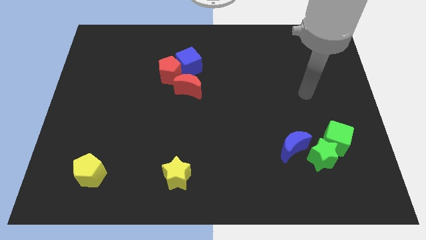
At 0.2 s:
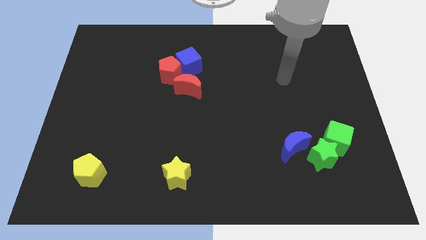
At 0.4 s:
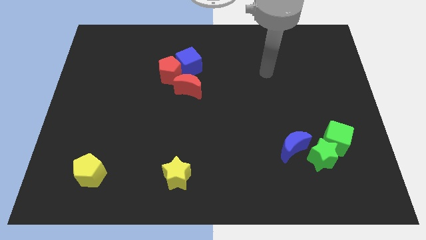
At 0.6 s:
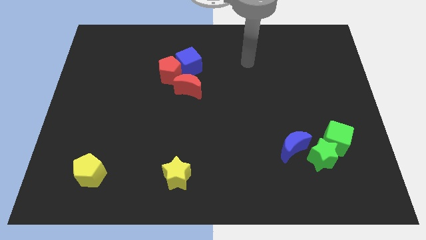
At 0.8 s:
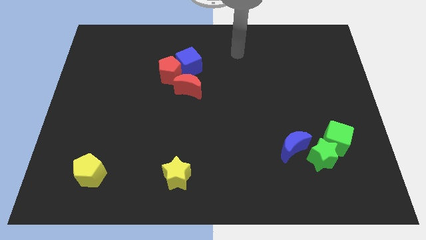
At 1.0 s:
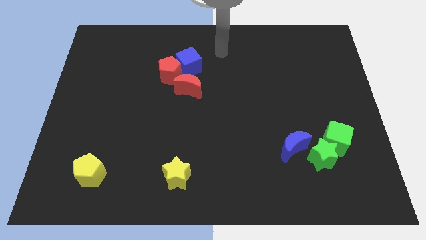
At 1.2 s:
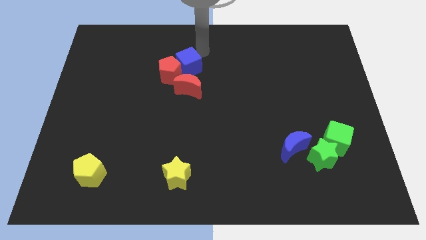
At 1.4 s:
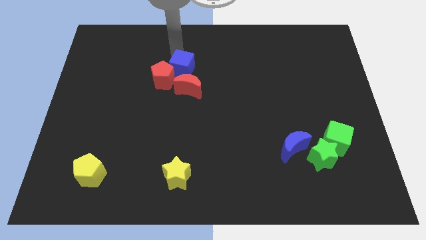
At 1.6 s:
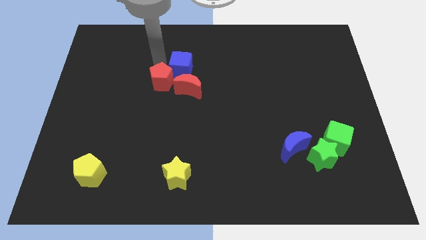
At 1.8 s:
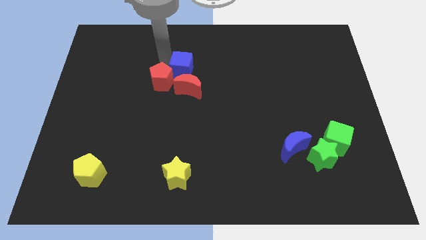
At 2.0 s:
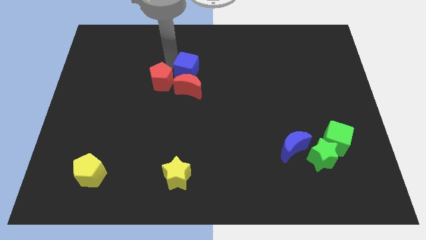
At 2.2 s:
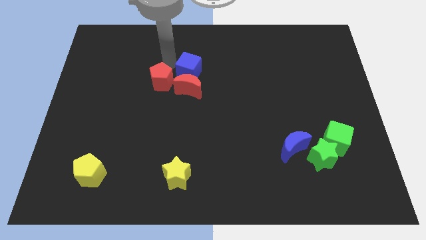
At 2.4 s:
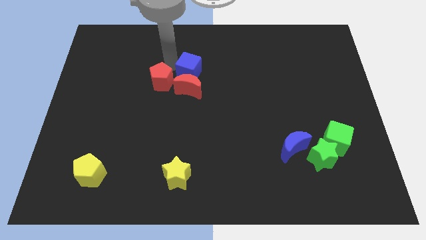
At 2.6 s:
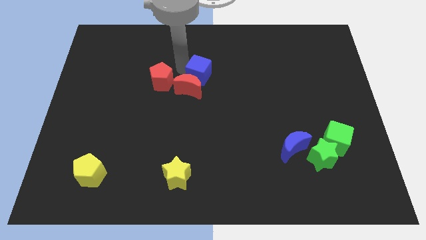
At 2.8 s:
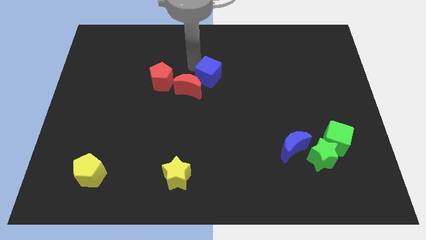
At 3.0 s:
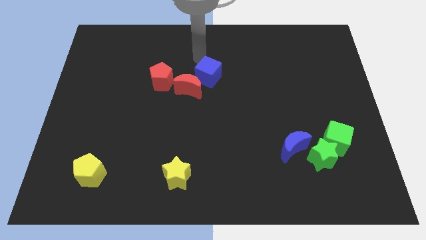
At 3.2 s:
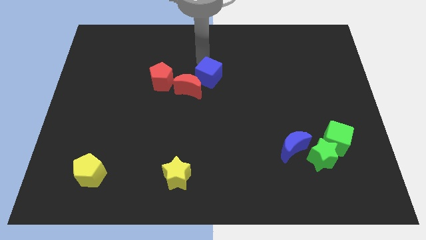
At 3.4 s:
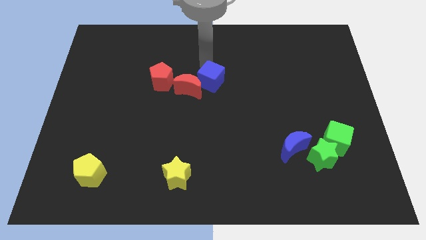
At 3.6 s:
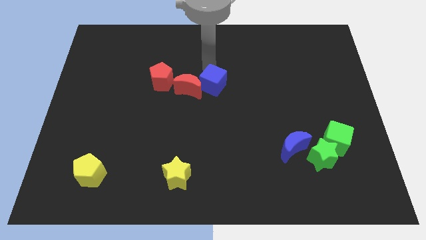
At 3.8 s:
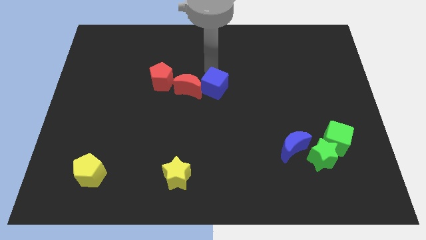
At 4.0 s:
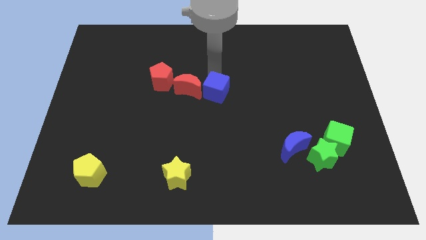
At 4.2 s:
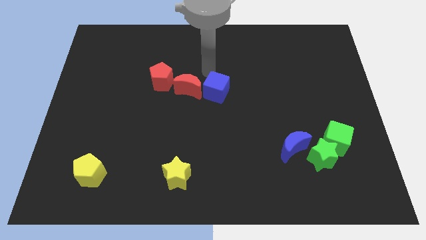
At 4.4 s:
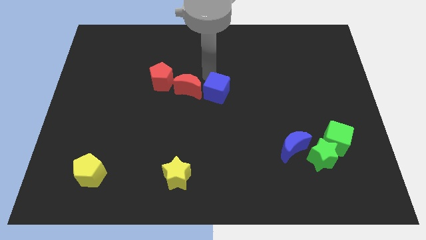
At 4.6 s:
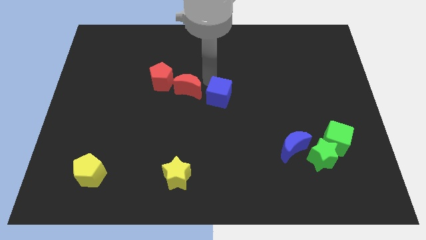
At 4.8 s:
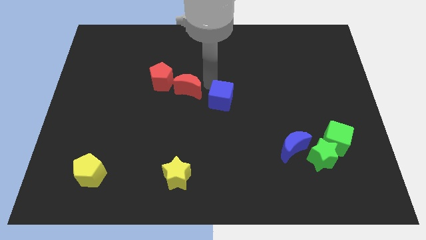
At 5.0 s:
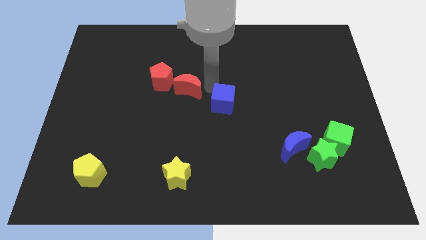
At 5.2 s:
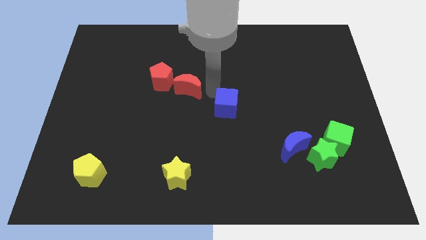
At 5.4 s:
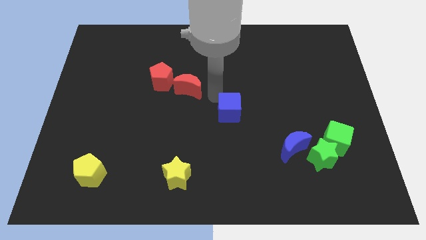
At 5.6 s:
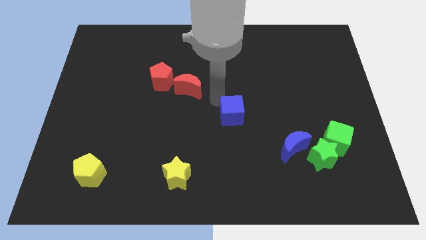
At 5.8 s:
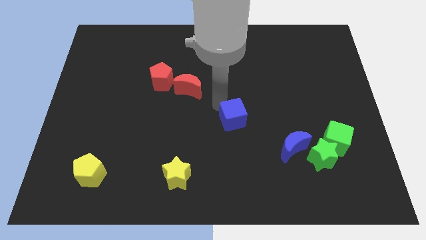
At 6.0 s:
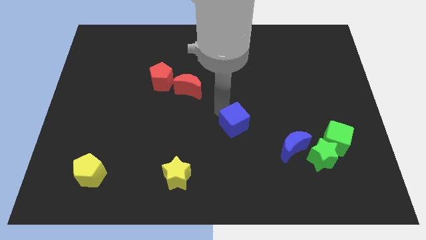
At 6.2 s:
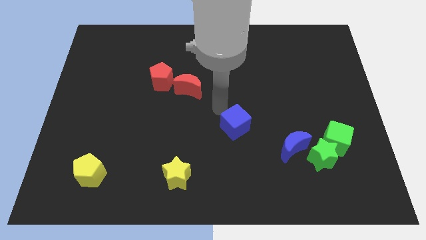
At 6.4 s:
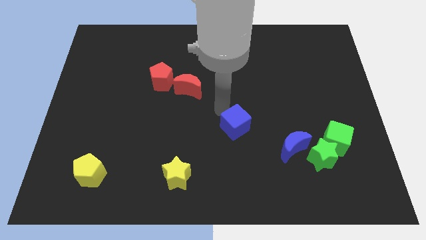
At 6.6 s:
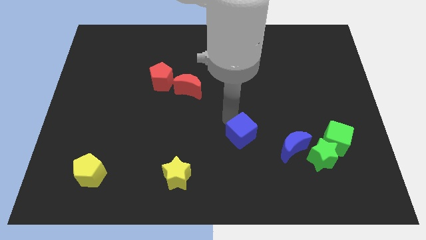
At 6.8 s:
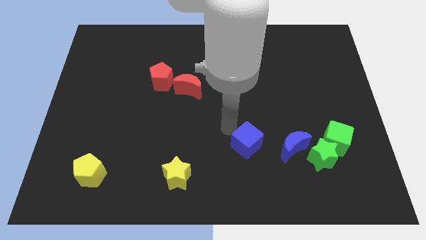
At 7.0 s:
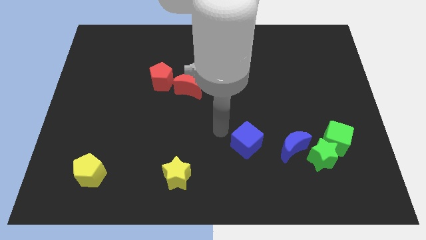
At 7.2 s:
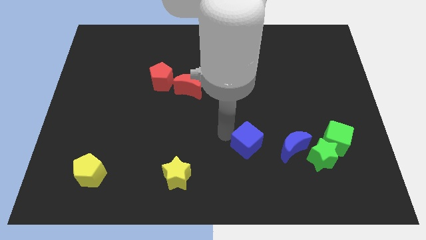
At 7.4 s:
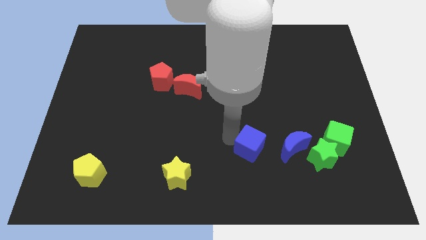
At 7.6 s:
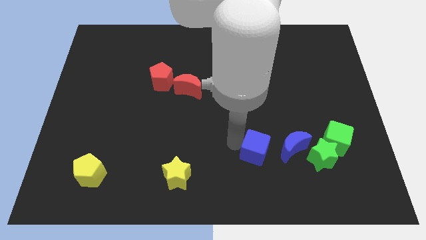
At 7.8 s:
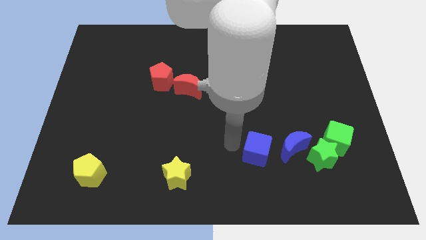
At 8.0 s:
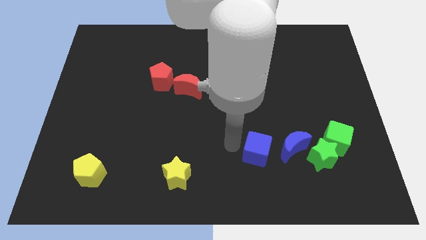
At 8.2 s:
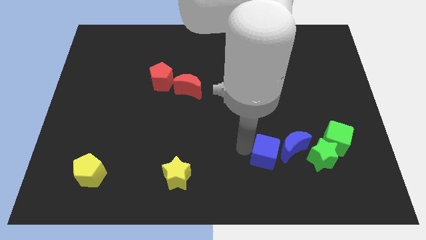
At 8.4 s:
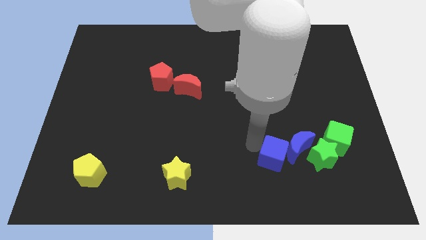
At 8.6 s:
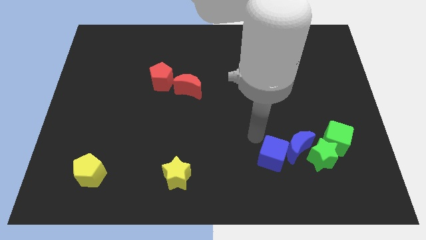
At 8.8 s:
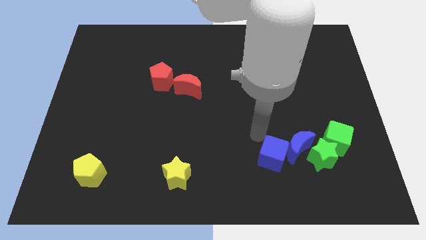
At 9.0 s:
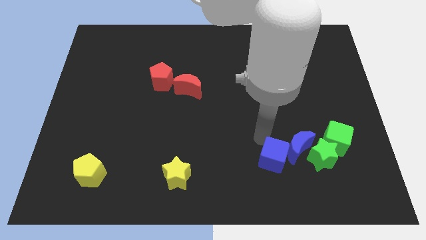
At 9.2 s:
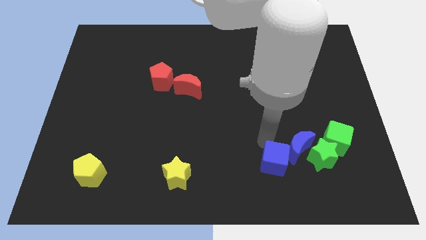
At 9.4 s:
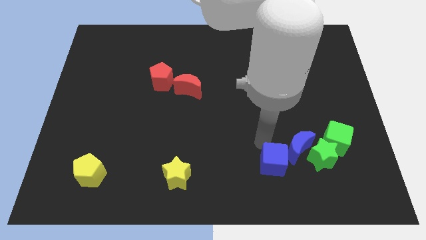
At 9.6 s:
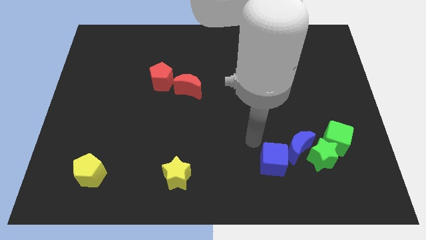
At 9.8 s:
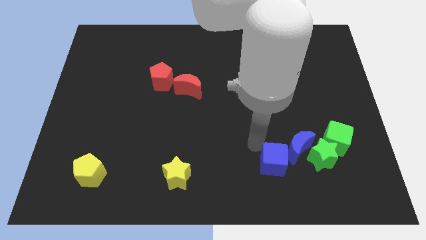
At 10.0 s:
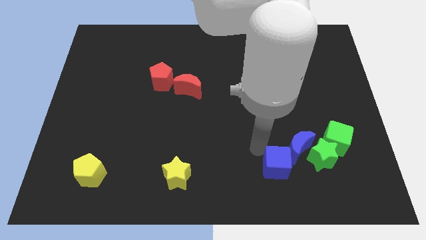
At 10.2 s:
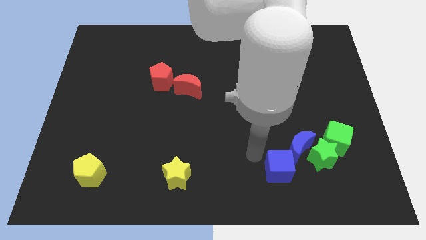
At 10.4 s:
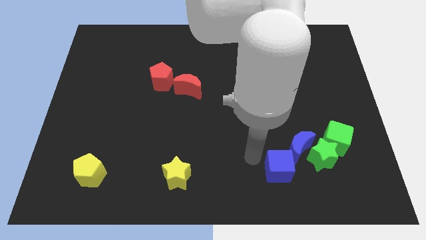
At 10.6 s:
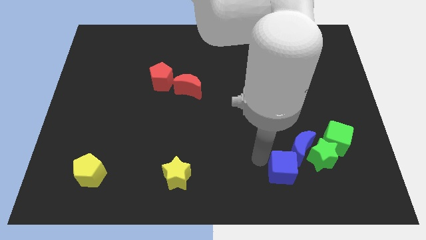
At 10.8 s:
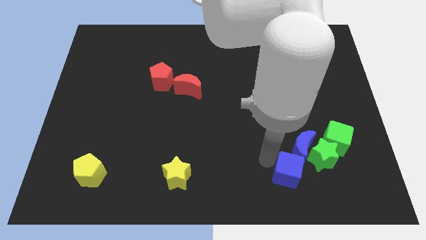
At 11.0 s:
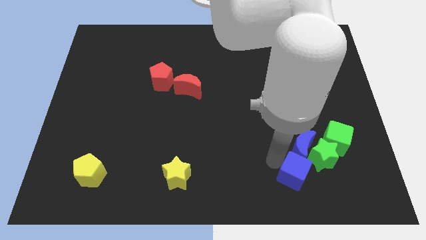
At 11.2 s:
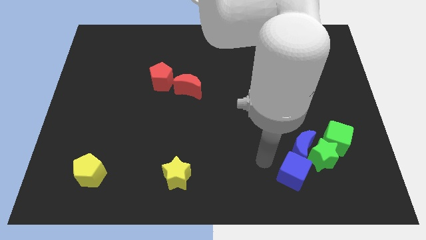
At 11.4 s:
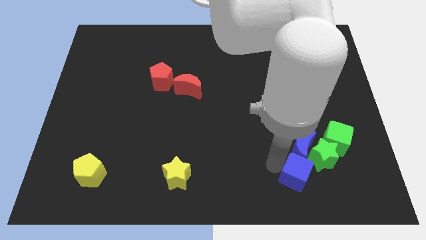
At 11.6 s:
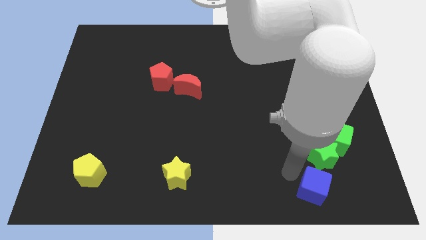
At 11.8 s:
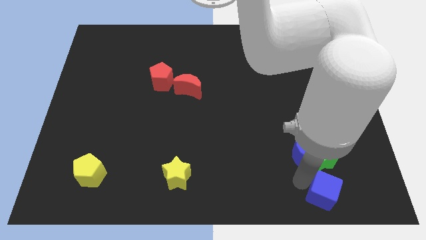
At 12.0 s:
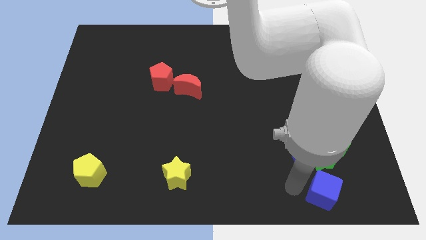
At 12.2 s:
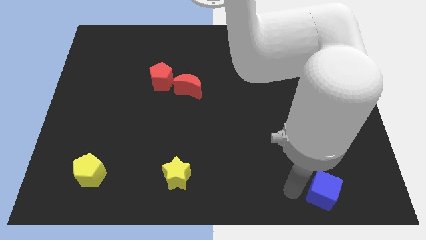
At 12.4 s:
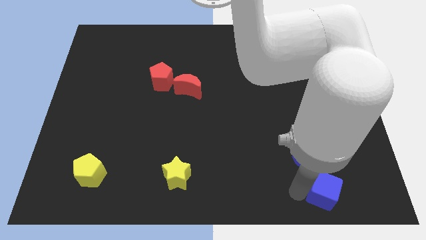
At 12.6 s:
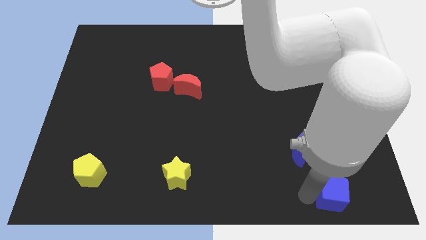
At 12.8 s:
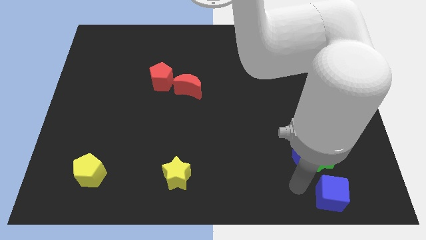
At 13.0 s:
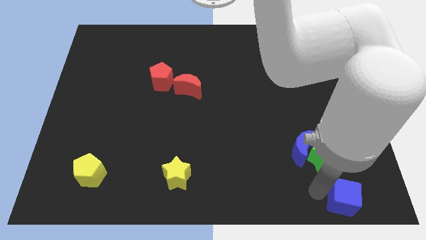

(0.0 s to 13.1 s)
push the blue cube to the bottom right corner
